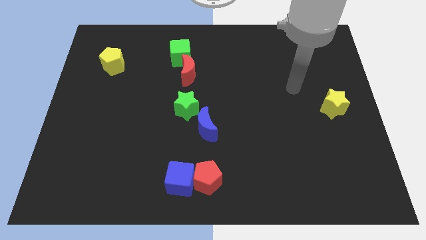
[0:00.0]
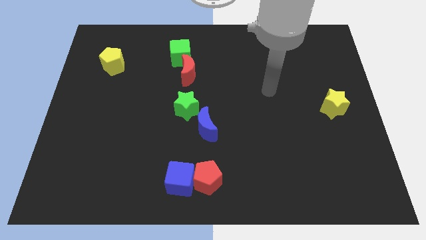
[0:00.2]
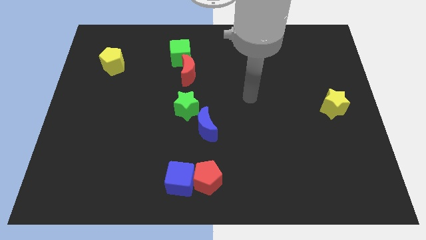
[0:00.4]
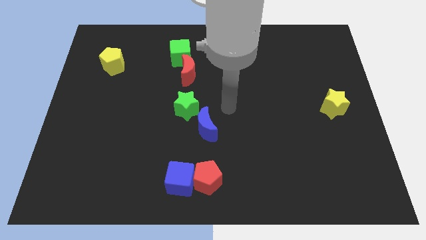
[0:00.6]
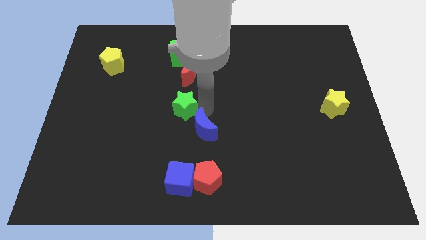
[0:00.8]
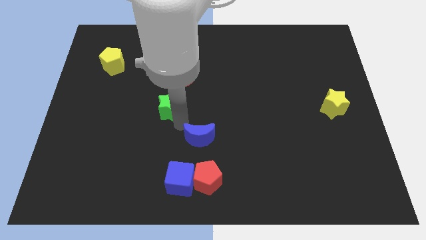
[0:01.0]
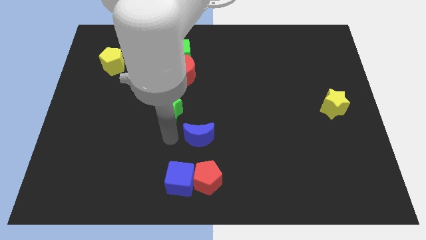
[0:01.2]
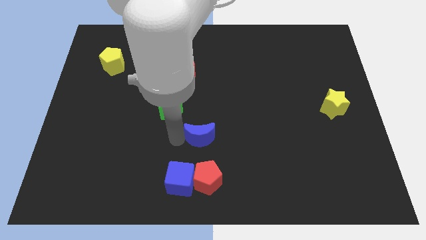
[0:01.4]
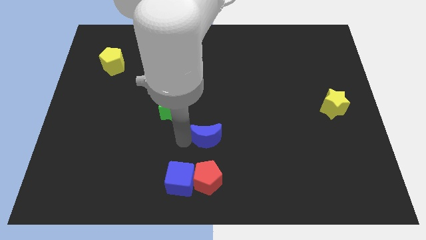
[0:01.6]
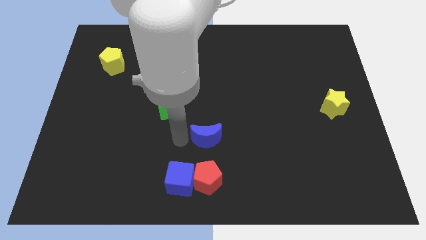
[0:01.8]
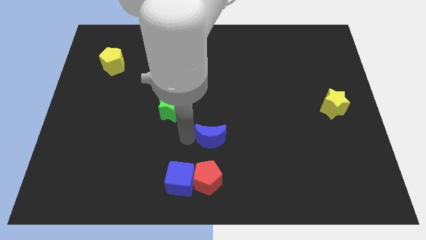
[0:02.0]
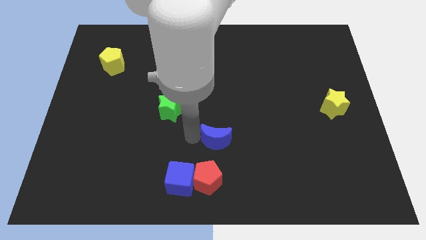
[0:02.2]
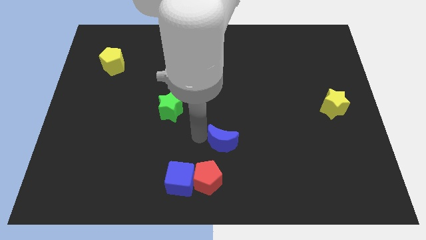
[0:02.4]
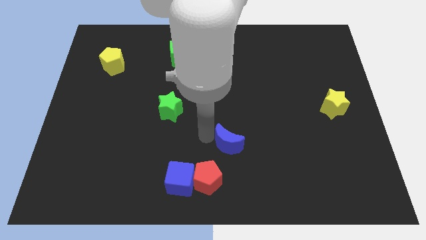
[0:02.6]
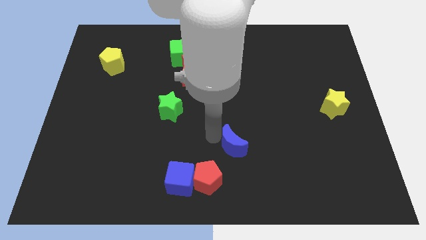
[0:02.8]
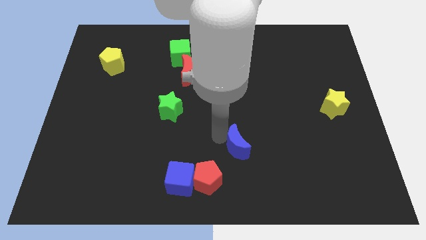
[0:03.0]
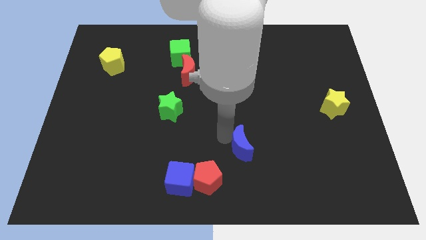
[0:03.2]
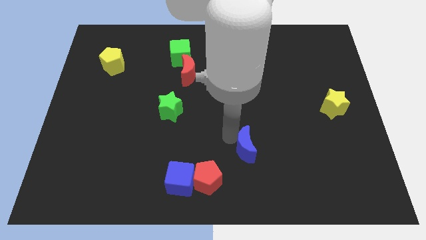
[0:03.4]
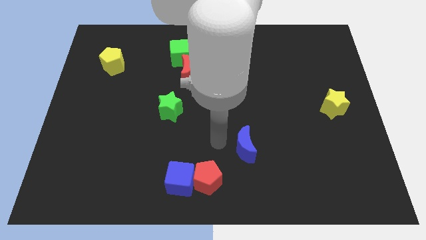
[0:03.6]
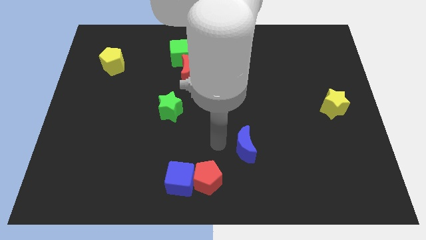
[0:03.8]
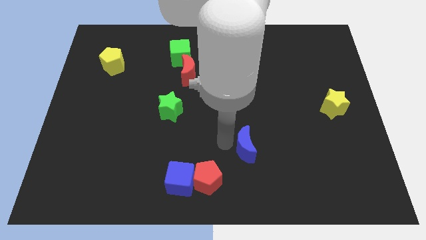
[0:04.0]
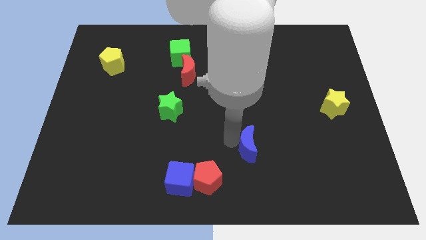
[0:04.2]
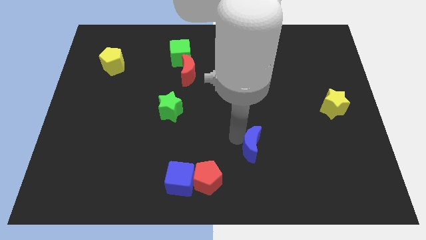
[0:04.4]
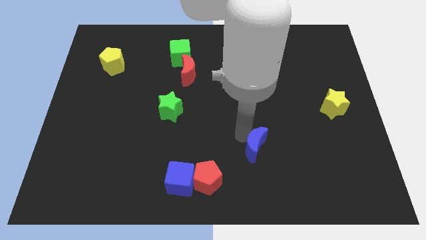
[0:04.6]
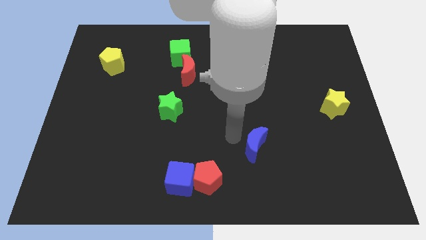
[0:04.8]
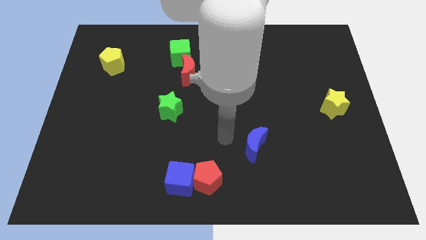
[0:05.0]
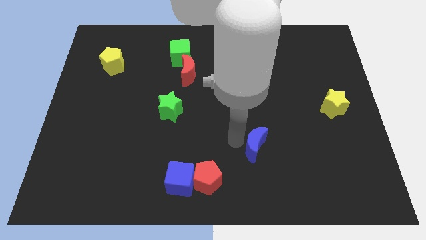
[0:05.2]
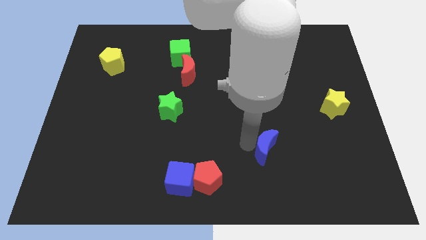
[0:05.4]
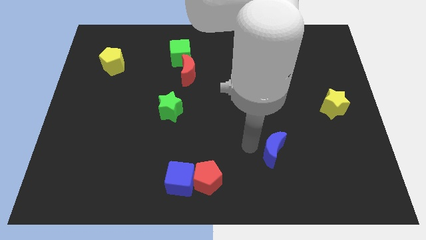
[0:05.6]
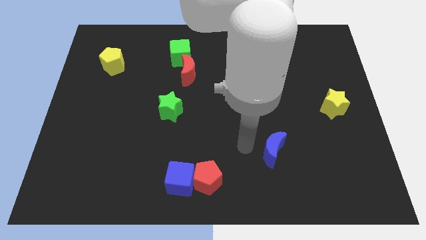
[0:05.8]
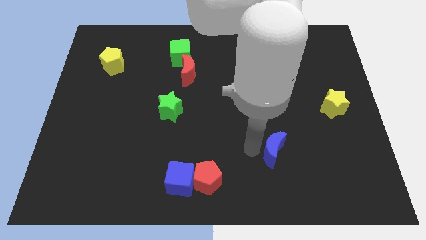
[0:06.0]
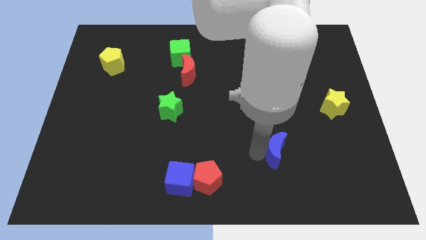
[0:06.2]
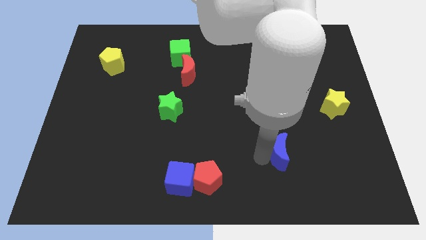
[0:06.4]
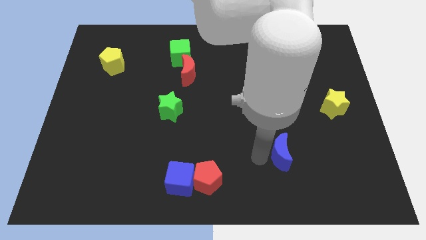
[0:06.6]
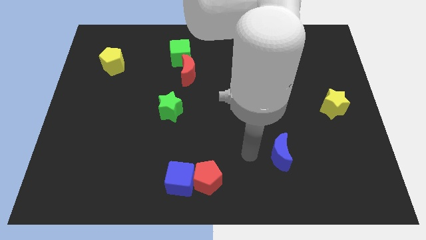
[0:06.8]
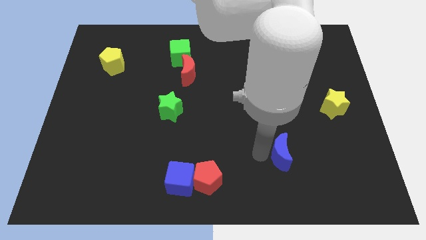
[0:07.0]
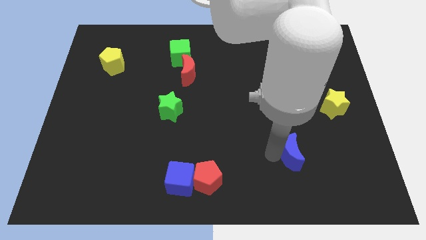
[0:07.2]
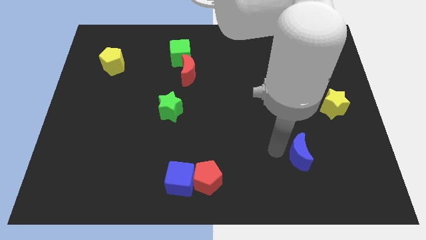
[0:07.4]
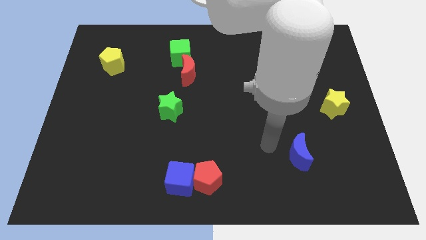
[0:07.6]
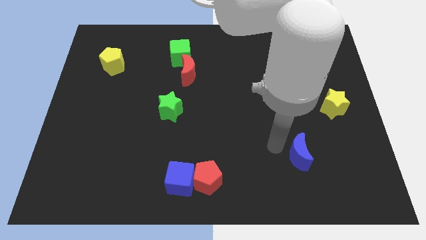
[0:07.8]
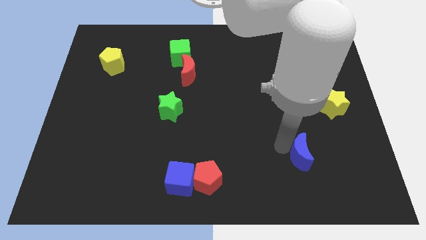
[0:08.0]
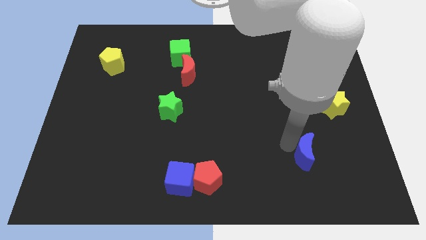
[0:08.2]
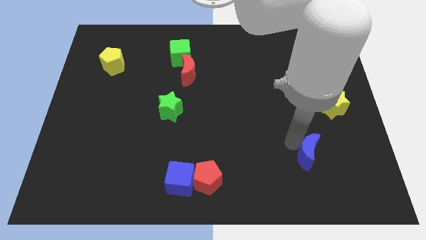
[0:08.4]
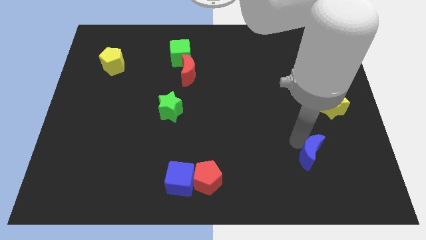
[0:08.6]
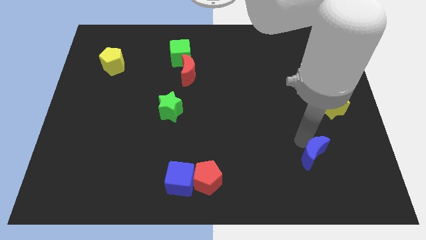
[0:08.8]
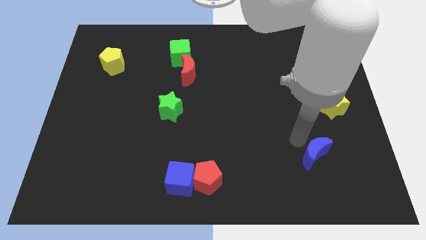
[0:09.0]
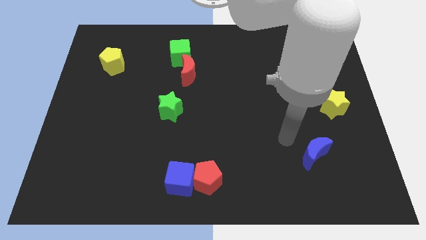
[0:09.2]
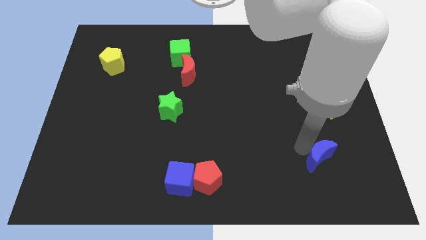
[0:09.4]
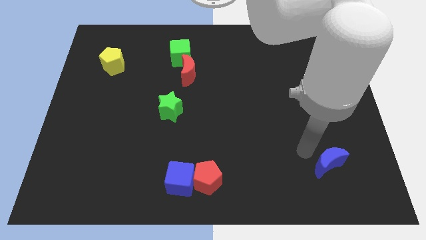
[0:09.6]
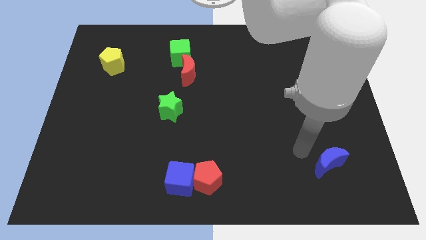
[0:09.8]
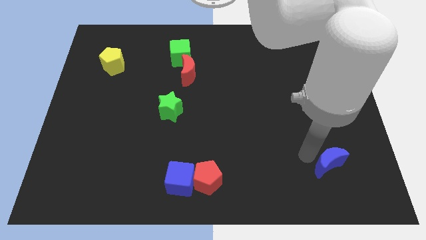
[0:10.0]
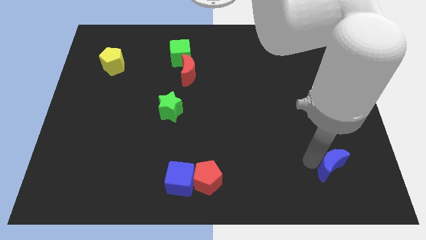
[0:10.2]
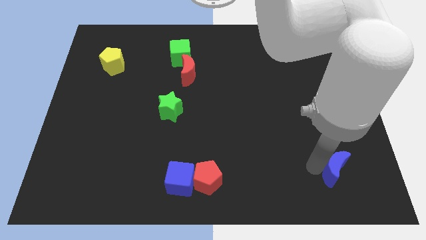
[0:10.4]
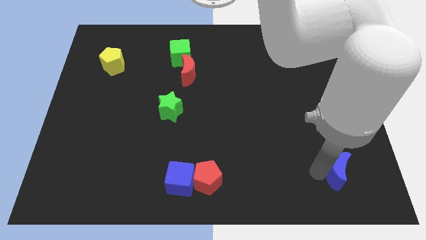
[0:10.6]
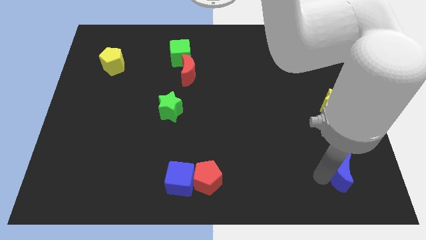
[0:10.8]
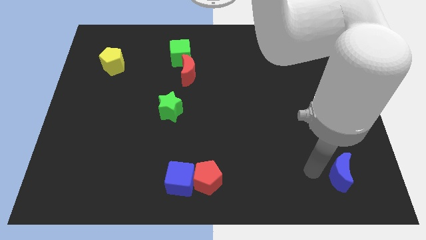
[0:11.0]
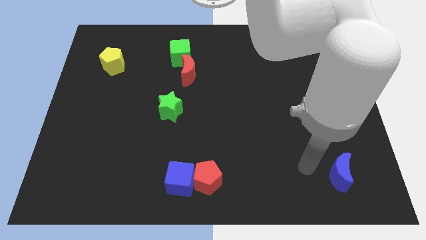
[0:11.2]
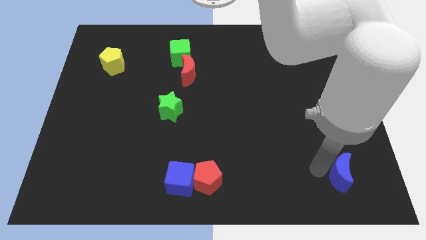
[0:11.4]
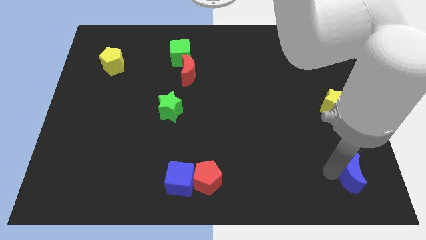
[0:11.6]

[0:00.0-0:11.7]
put the blue moon to the bottom right

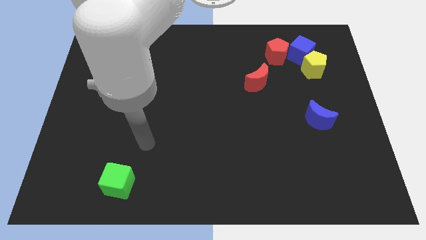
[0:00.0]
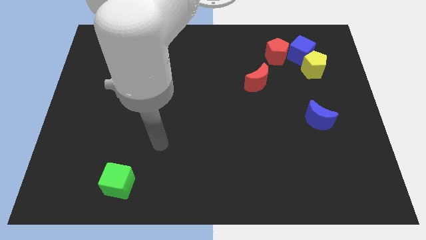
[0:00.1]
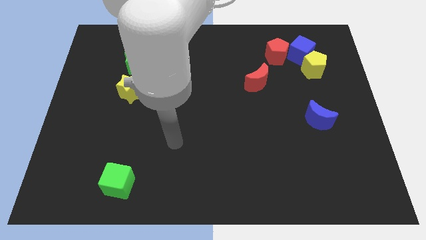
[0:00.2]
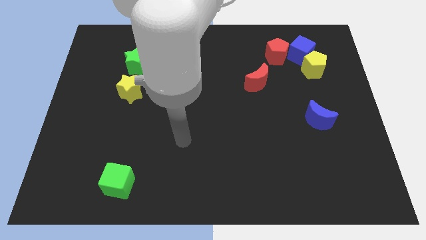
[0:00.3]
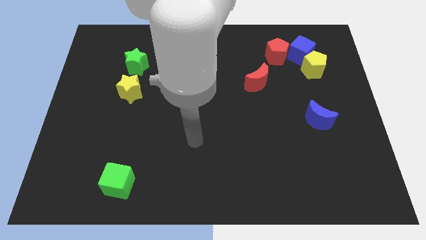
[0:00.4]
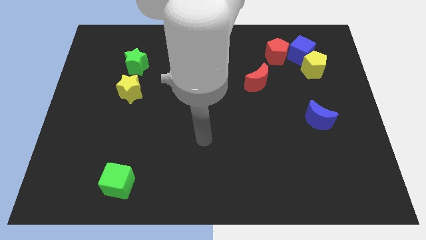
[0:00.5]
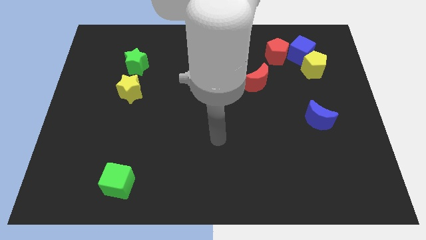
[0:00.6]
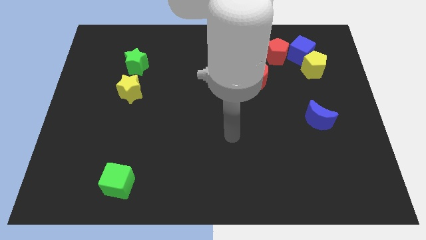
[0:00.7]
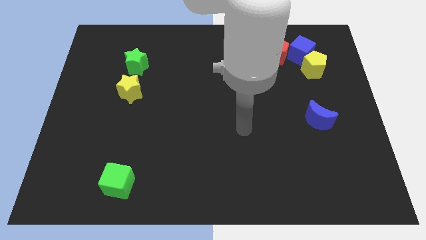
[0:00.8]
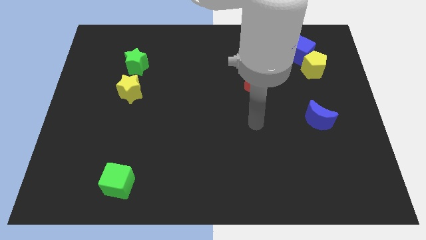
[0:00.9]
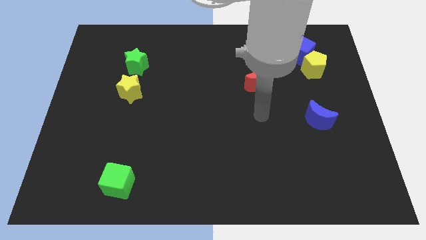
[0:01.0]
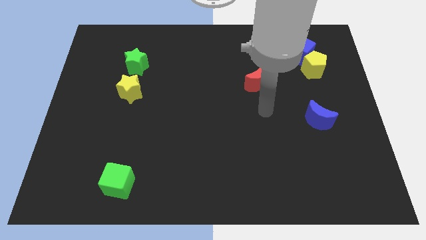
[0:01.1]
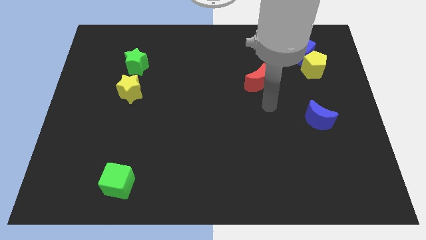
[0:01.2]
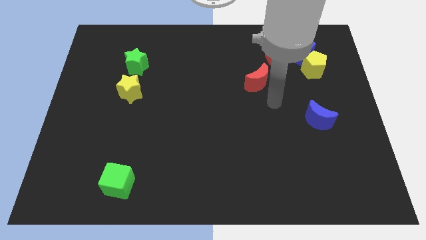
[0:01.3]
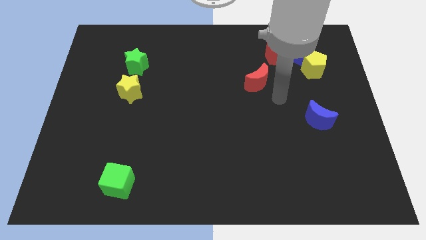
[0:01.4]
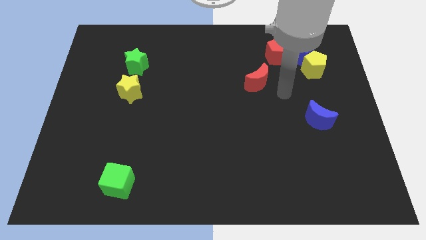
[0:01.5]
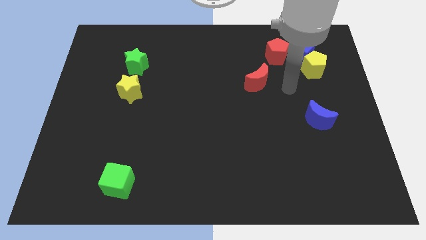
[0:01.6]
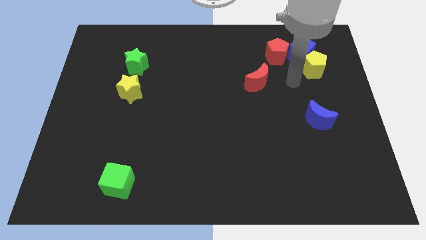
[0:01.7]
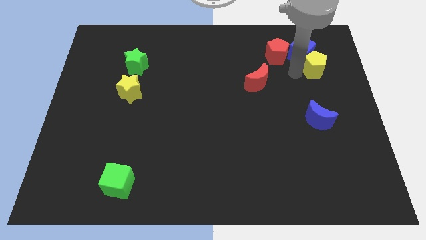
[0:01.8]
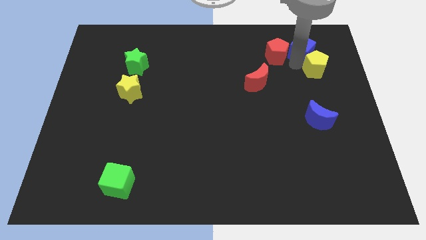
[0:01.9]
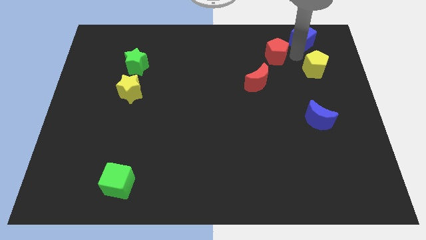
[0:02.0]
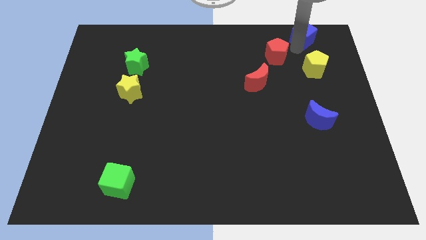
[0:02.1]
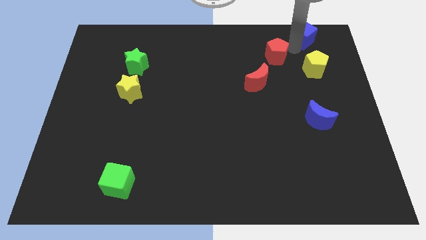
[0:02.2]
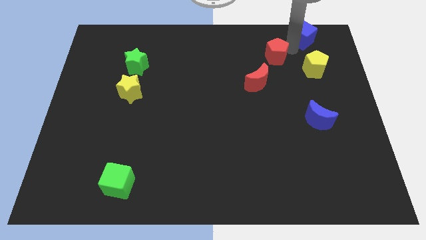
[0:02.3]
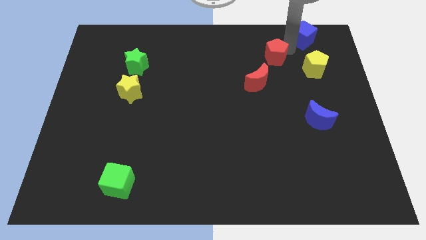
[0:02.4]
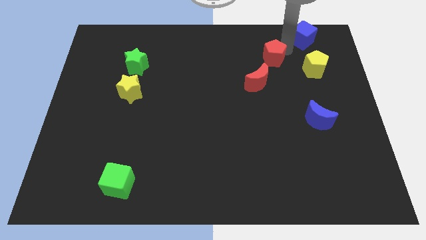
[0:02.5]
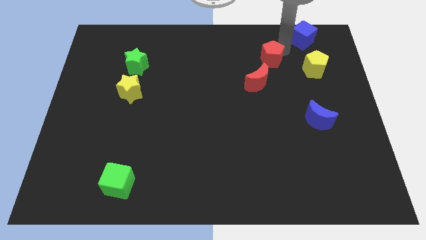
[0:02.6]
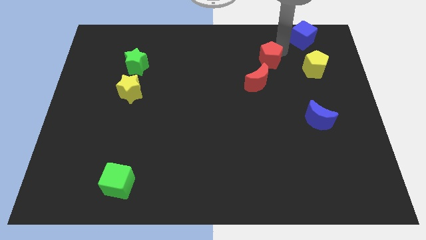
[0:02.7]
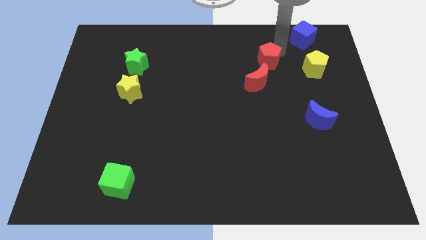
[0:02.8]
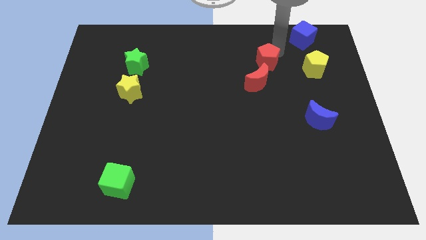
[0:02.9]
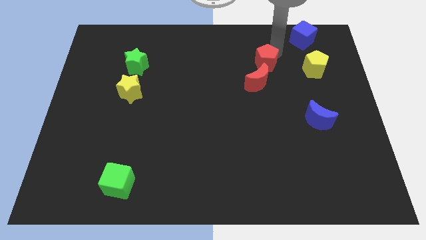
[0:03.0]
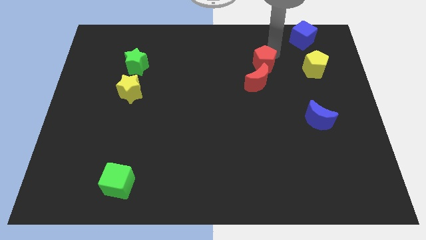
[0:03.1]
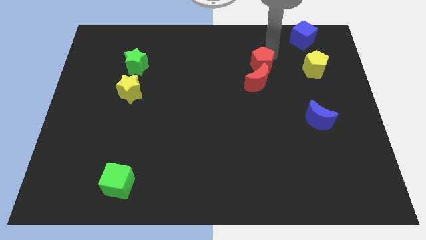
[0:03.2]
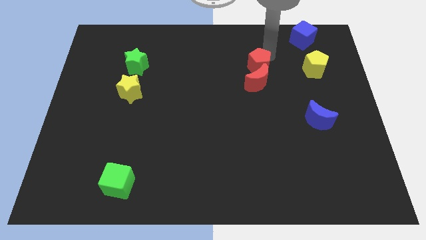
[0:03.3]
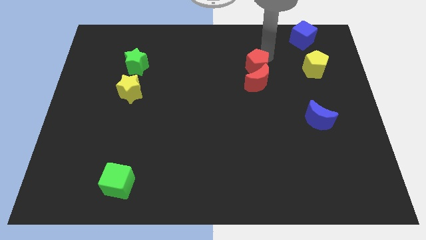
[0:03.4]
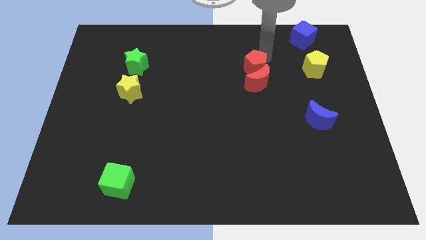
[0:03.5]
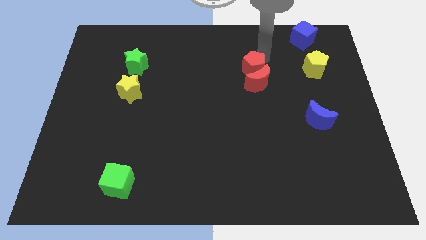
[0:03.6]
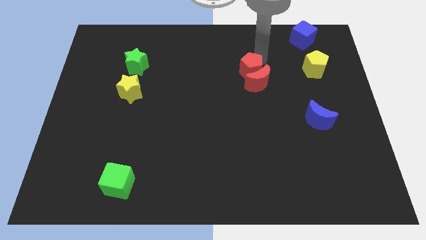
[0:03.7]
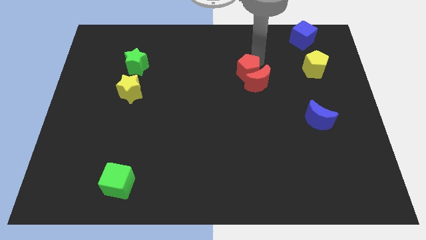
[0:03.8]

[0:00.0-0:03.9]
put the red pentagon to the center
